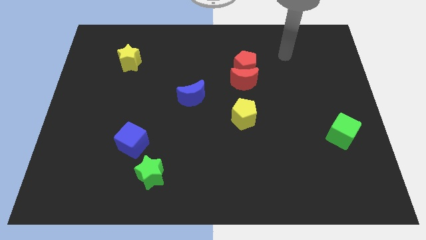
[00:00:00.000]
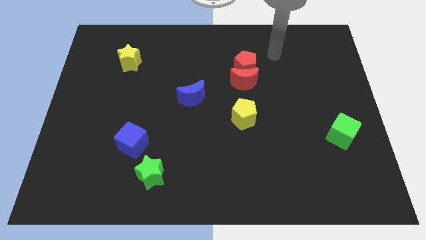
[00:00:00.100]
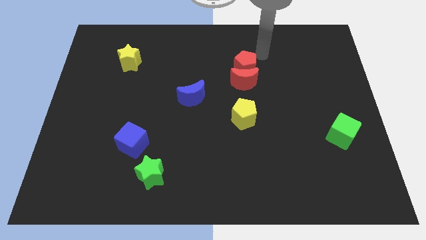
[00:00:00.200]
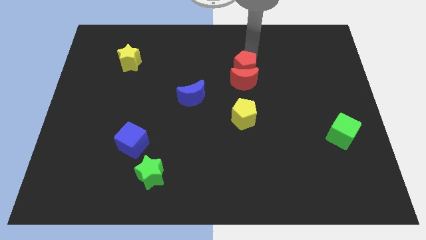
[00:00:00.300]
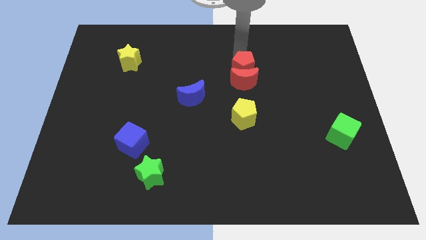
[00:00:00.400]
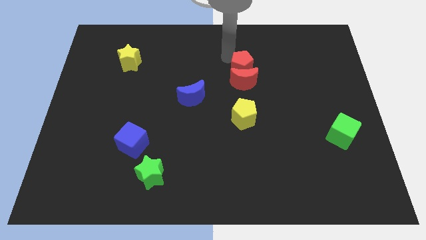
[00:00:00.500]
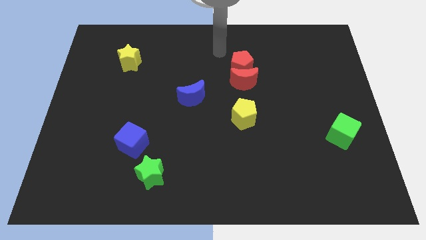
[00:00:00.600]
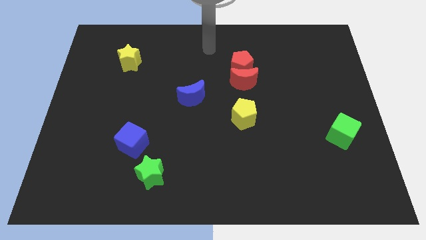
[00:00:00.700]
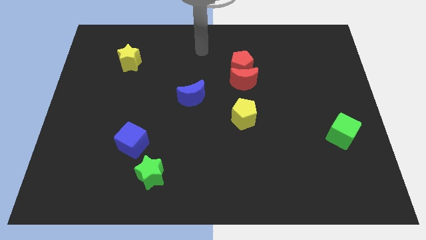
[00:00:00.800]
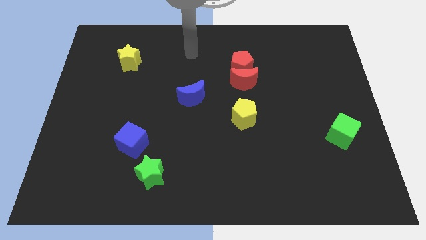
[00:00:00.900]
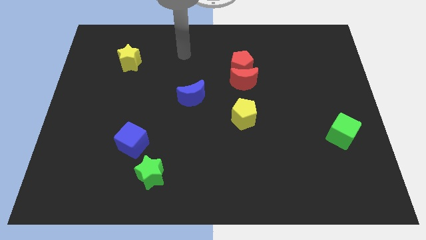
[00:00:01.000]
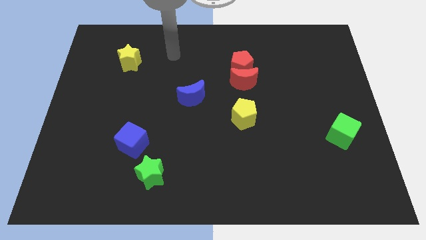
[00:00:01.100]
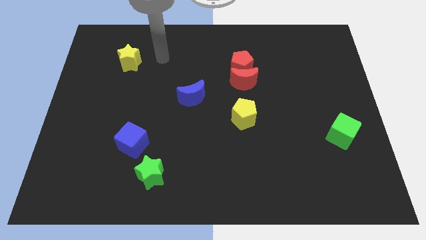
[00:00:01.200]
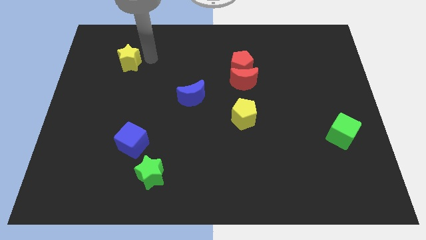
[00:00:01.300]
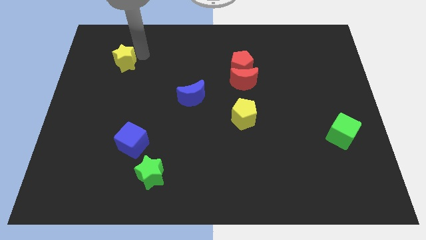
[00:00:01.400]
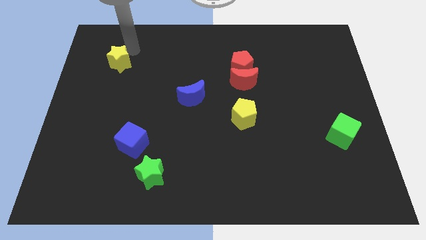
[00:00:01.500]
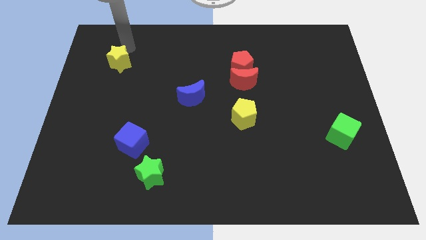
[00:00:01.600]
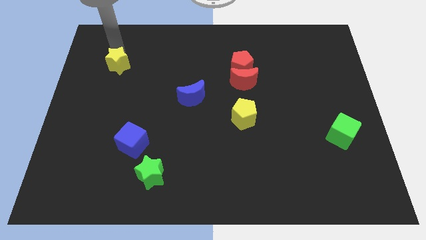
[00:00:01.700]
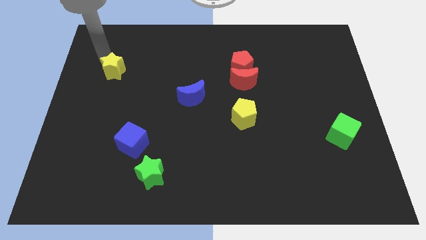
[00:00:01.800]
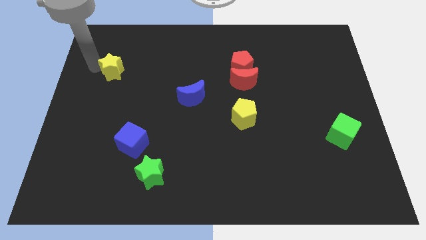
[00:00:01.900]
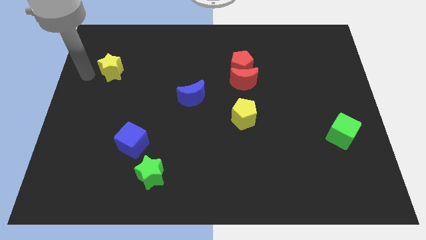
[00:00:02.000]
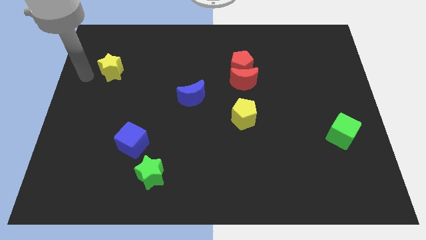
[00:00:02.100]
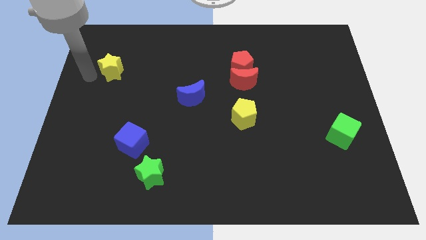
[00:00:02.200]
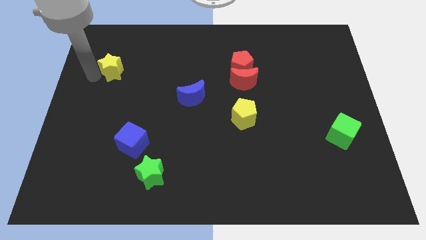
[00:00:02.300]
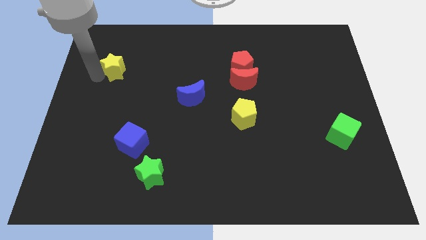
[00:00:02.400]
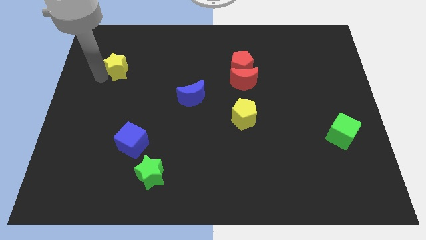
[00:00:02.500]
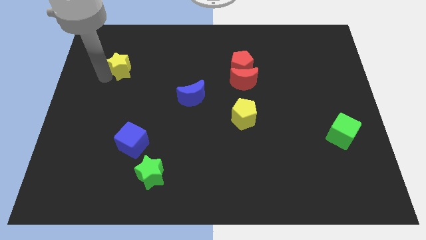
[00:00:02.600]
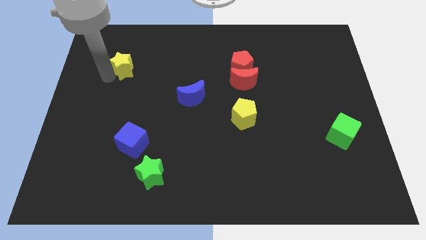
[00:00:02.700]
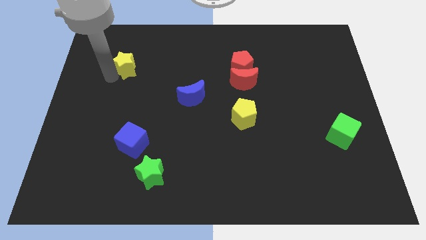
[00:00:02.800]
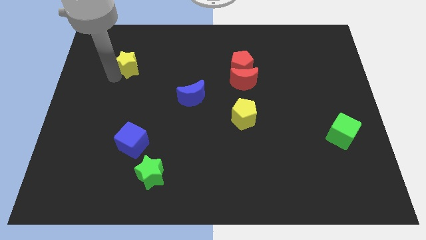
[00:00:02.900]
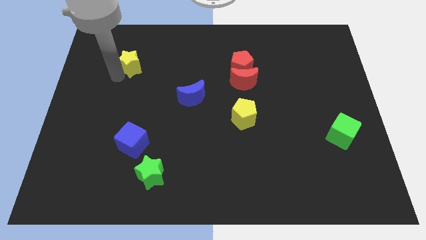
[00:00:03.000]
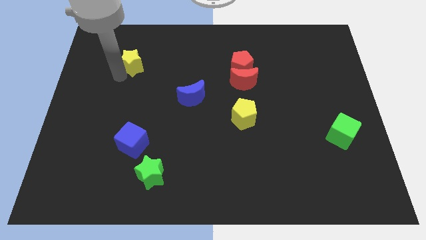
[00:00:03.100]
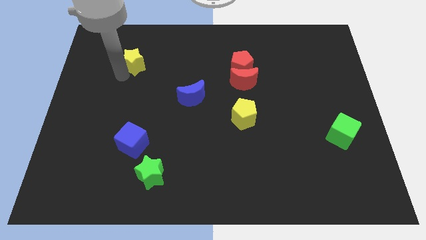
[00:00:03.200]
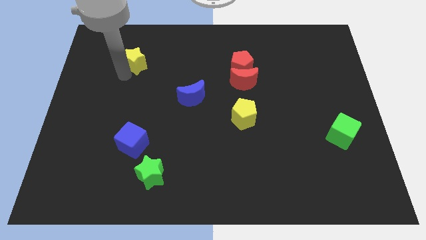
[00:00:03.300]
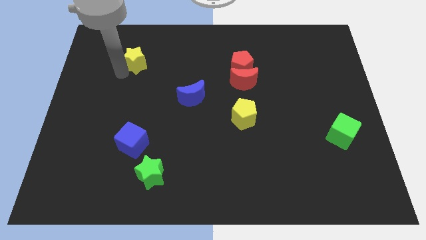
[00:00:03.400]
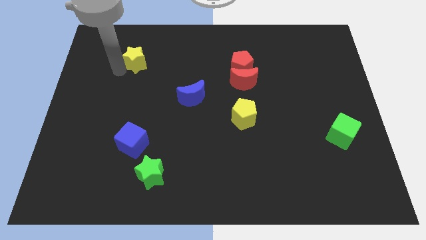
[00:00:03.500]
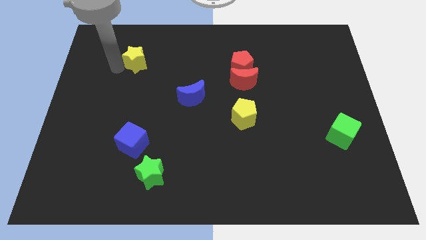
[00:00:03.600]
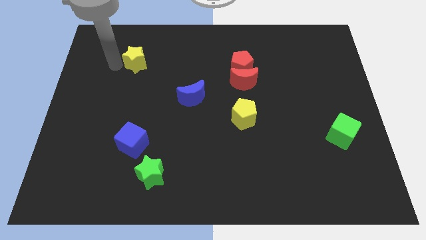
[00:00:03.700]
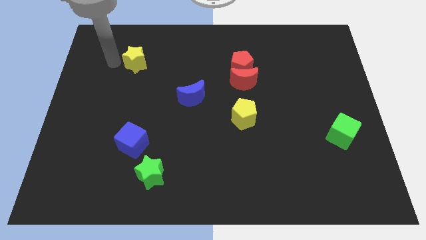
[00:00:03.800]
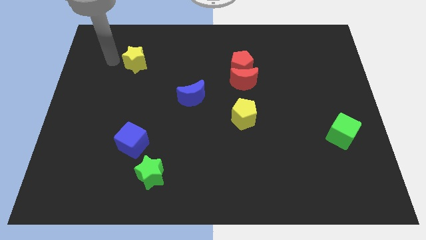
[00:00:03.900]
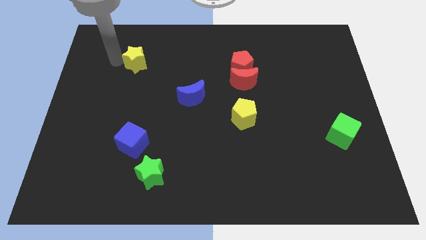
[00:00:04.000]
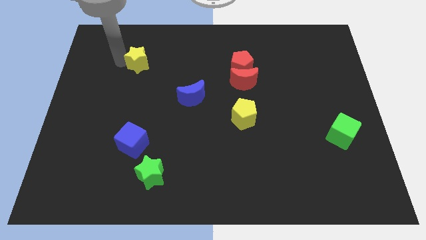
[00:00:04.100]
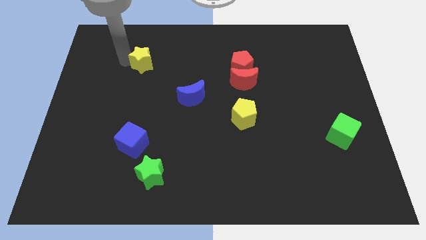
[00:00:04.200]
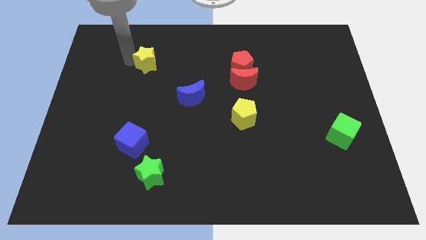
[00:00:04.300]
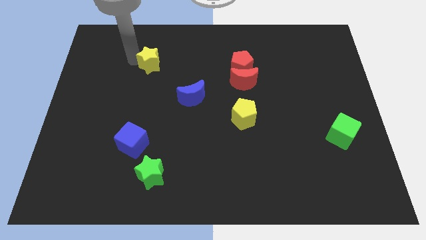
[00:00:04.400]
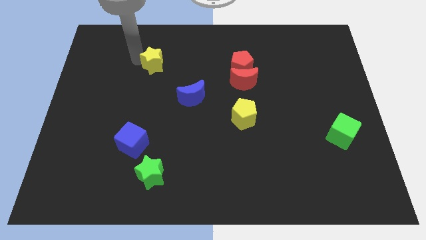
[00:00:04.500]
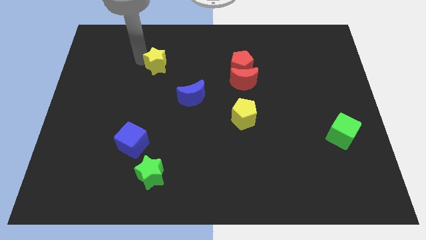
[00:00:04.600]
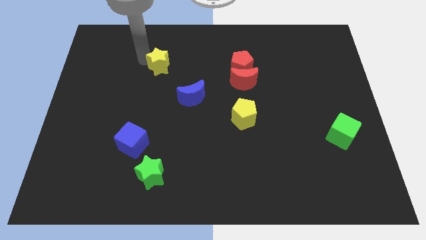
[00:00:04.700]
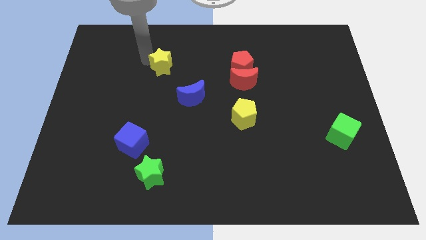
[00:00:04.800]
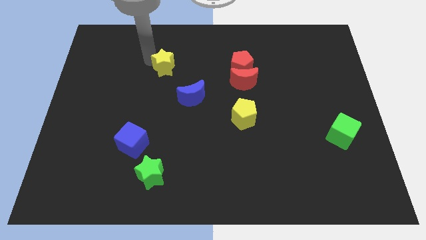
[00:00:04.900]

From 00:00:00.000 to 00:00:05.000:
push the yellow star to the top left side of the blue moon

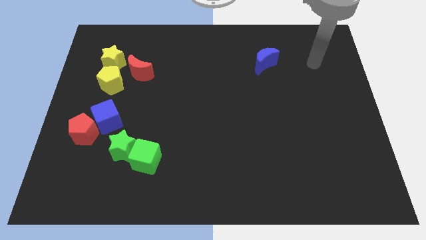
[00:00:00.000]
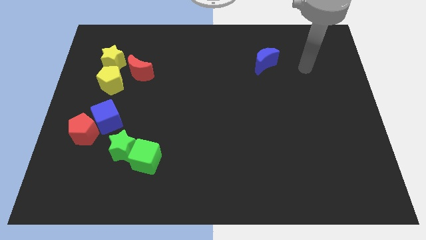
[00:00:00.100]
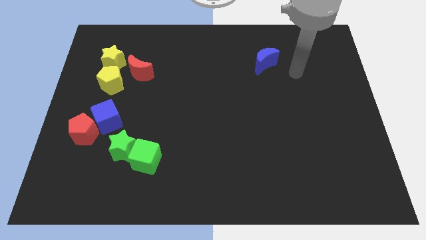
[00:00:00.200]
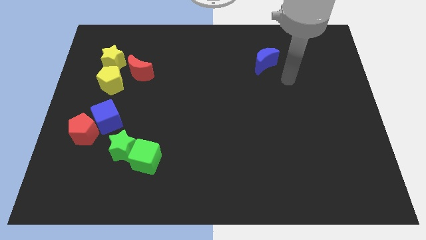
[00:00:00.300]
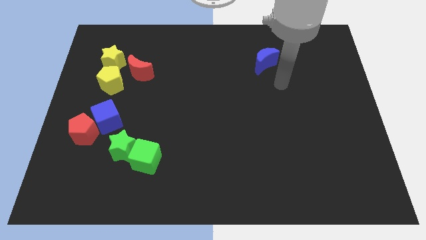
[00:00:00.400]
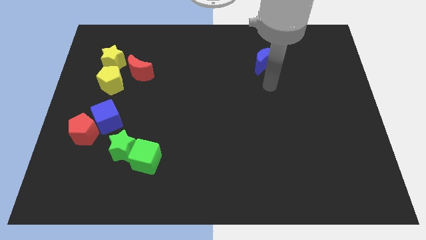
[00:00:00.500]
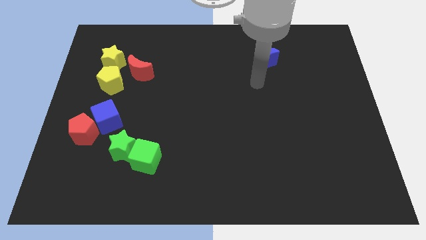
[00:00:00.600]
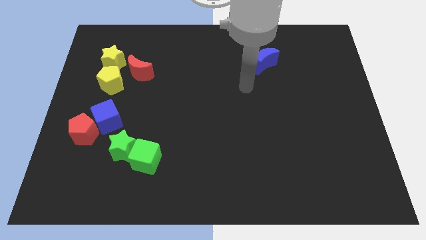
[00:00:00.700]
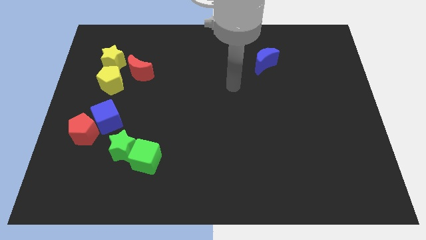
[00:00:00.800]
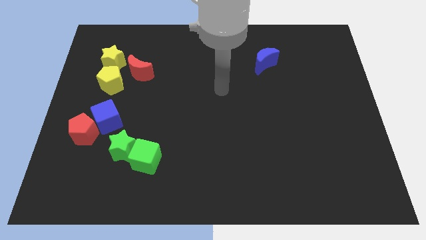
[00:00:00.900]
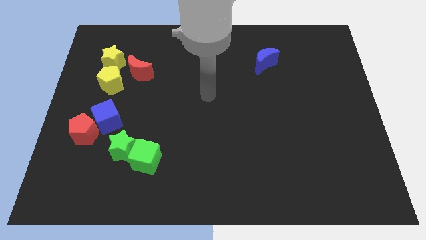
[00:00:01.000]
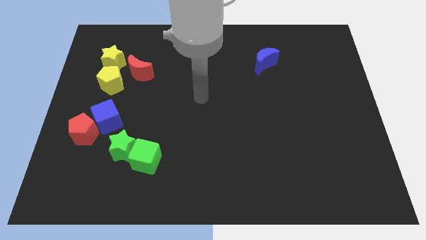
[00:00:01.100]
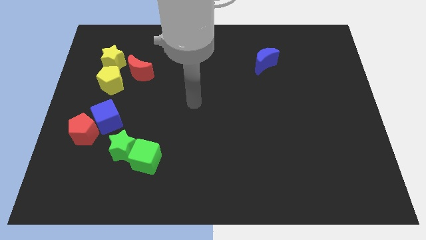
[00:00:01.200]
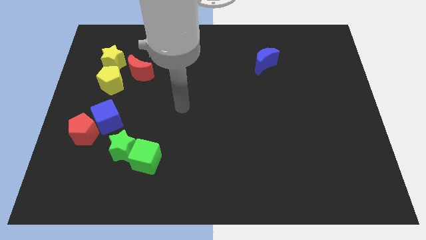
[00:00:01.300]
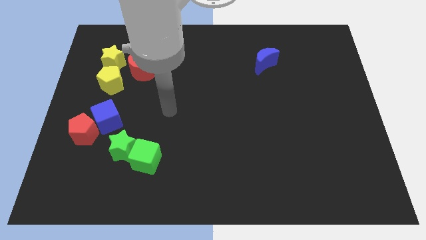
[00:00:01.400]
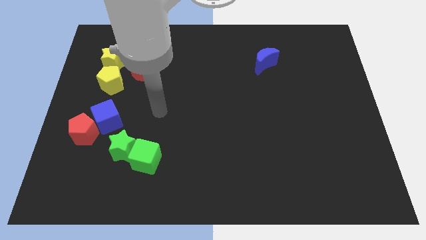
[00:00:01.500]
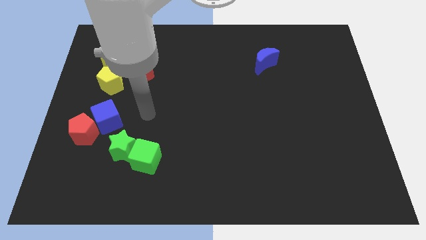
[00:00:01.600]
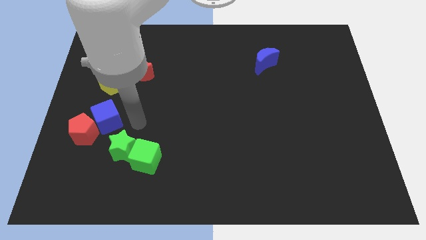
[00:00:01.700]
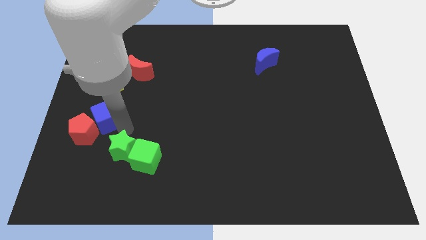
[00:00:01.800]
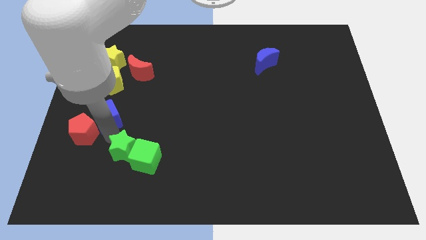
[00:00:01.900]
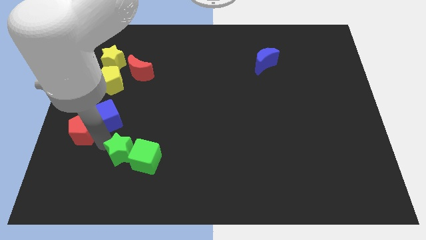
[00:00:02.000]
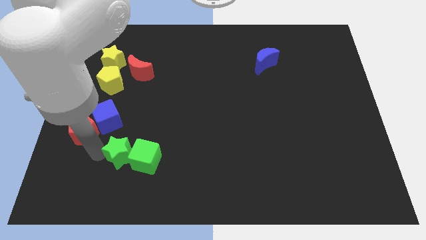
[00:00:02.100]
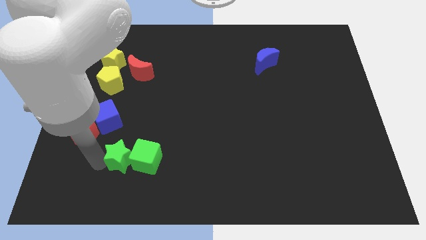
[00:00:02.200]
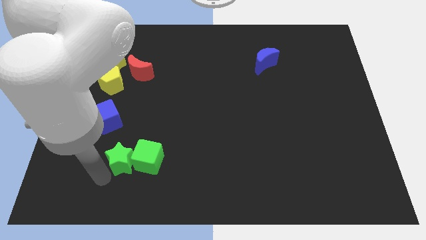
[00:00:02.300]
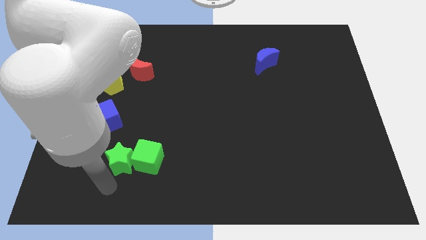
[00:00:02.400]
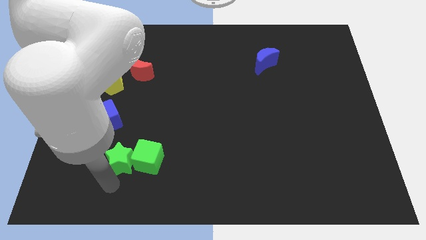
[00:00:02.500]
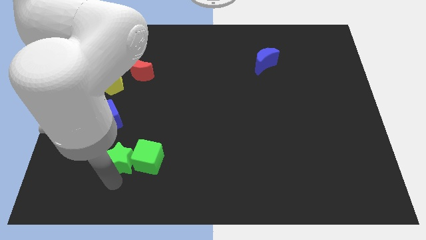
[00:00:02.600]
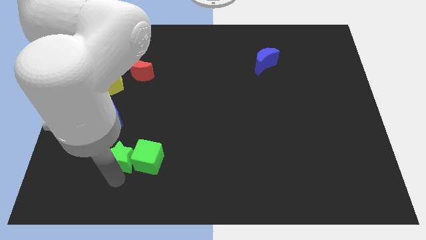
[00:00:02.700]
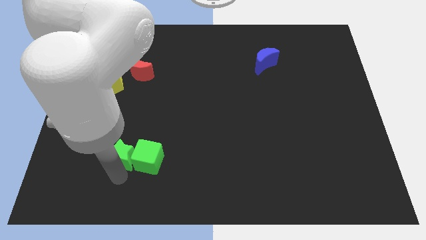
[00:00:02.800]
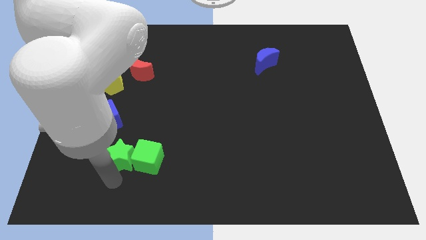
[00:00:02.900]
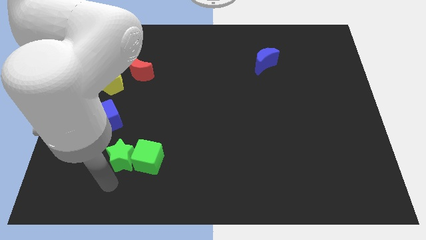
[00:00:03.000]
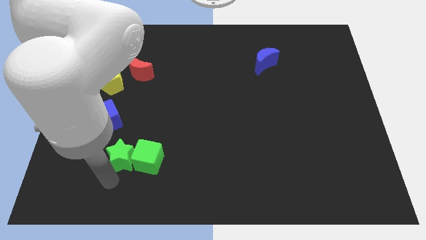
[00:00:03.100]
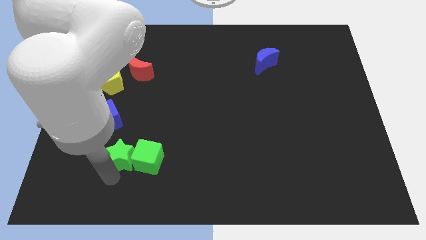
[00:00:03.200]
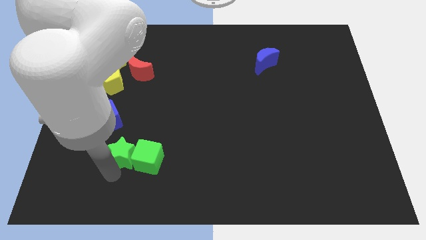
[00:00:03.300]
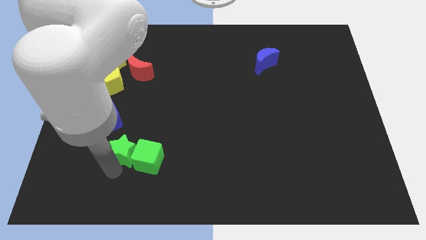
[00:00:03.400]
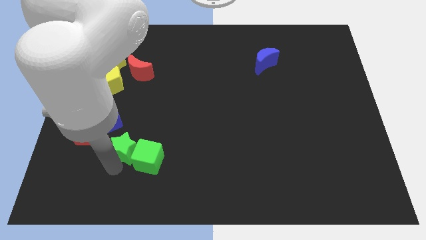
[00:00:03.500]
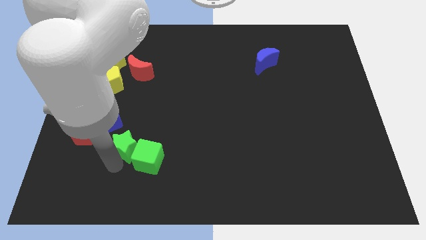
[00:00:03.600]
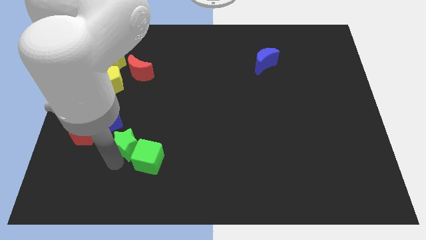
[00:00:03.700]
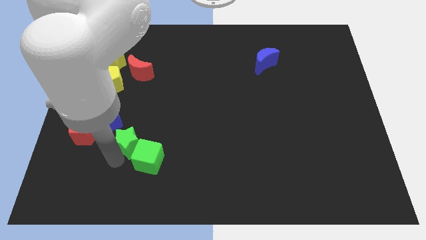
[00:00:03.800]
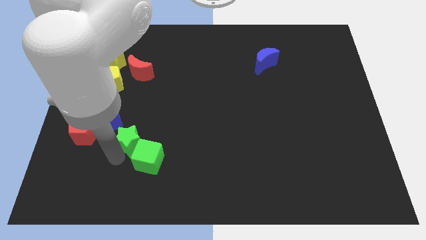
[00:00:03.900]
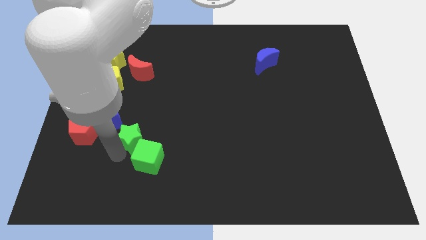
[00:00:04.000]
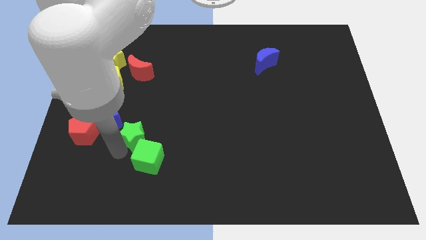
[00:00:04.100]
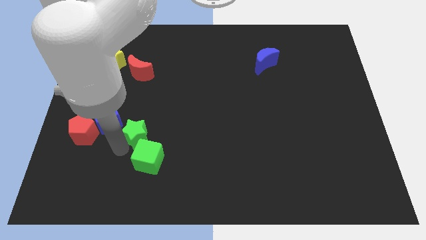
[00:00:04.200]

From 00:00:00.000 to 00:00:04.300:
move the green star just right of the blue cube
